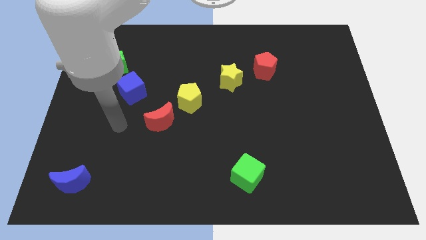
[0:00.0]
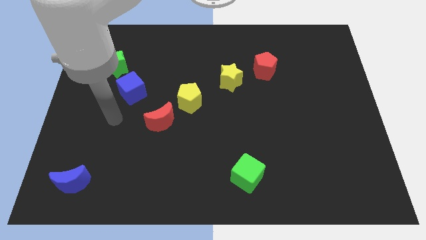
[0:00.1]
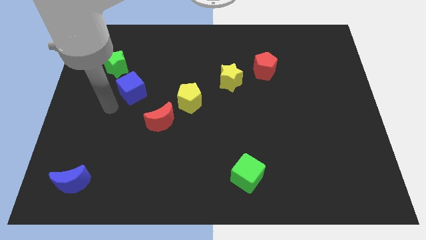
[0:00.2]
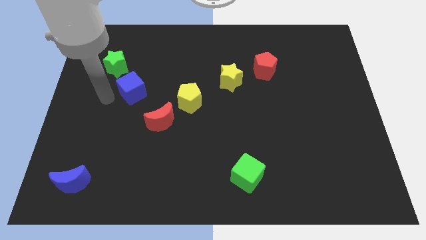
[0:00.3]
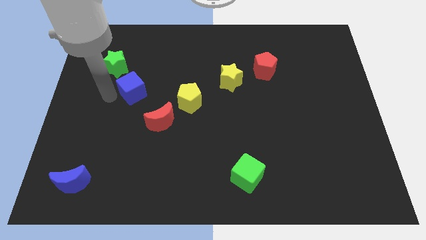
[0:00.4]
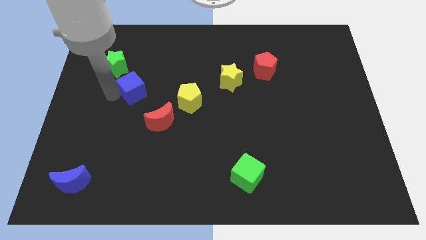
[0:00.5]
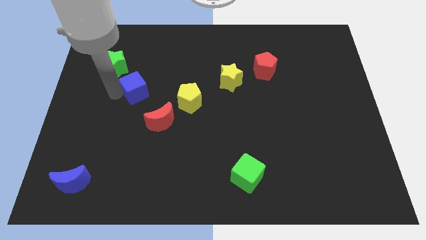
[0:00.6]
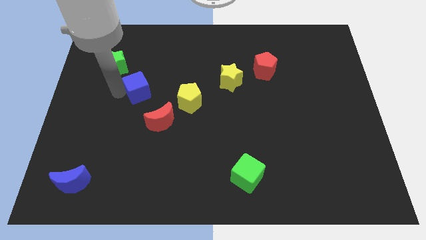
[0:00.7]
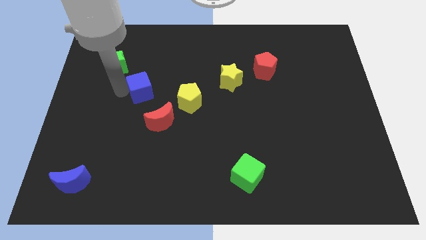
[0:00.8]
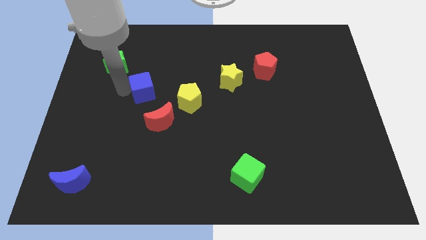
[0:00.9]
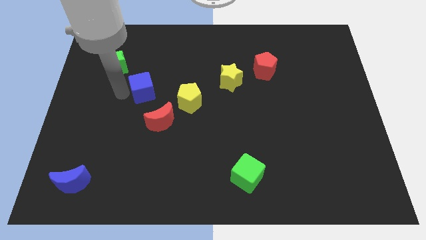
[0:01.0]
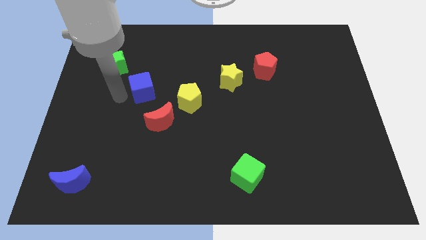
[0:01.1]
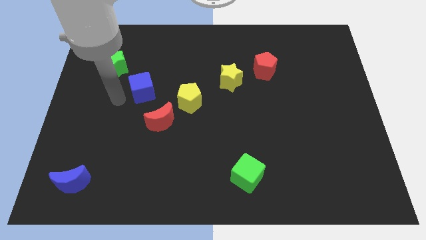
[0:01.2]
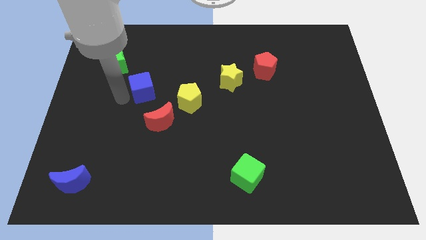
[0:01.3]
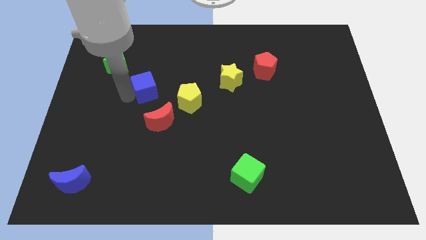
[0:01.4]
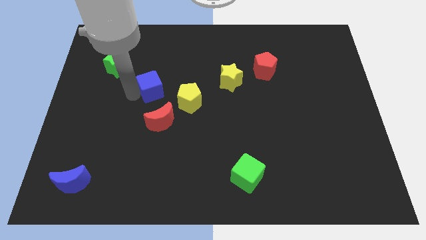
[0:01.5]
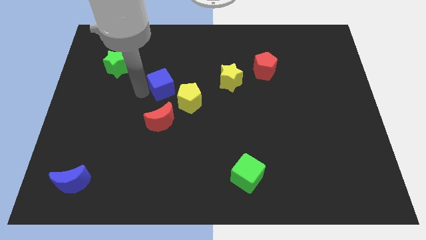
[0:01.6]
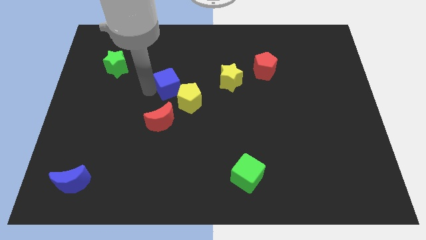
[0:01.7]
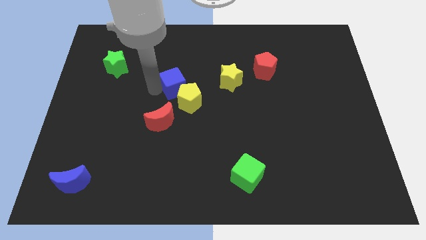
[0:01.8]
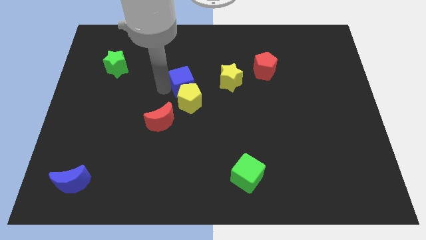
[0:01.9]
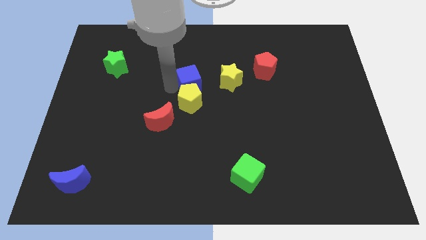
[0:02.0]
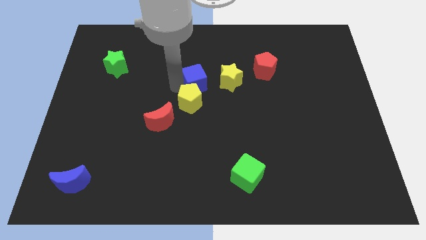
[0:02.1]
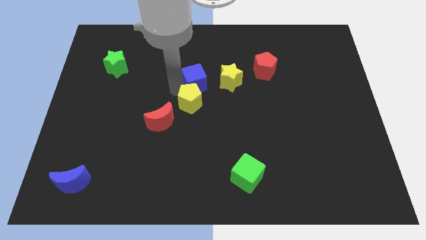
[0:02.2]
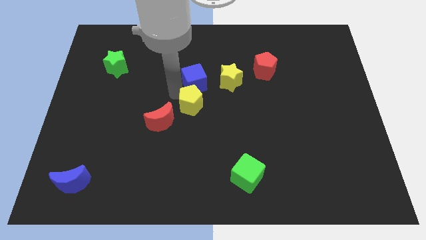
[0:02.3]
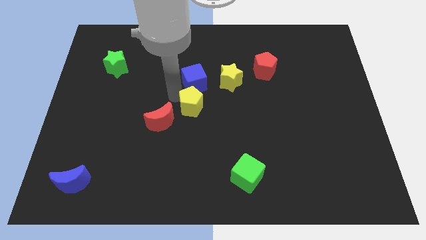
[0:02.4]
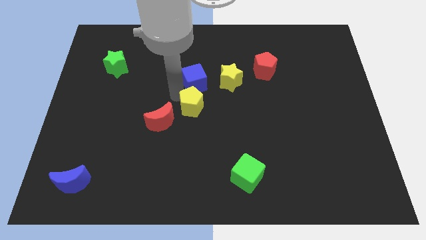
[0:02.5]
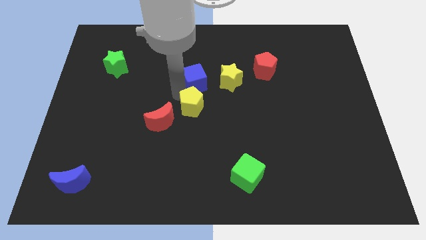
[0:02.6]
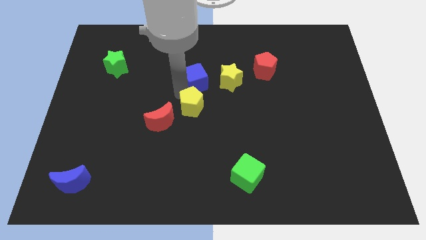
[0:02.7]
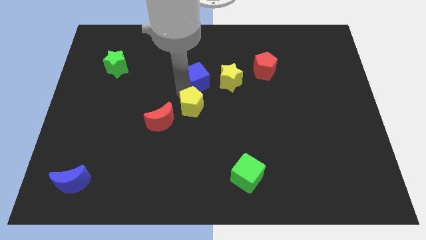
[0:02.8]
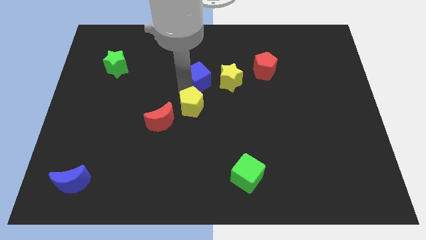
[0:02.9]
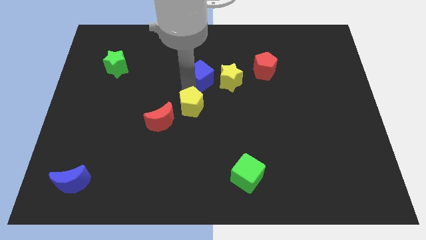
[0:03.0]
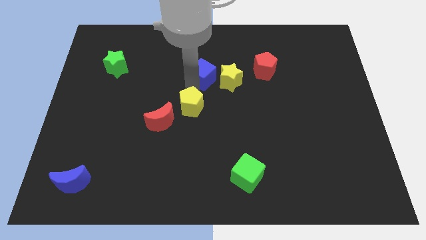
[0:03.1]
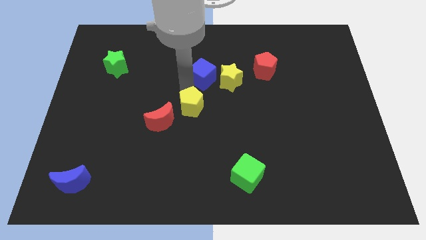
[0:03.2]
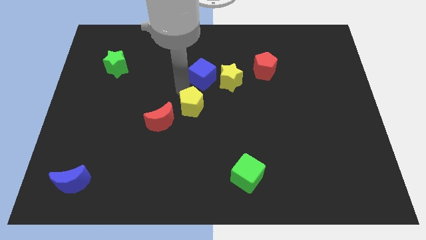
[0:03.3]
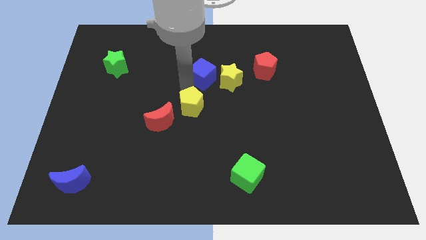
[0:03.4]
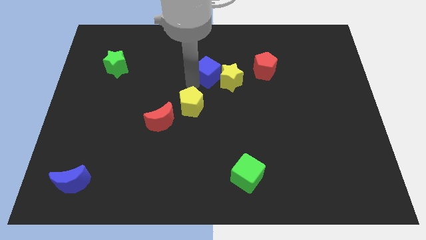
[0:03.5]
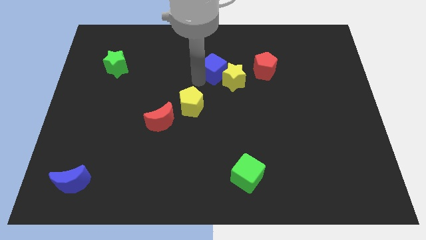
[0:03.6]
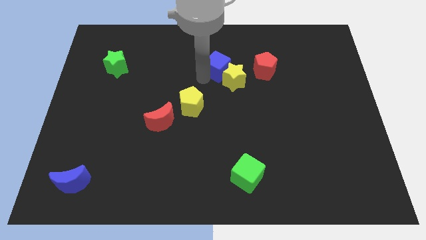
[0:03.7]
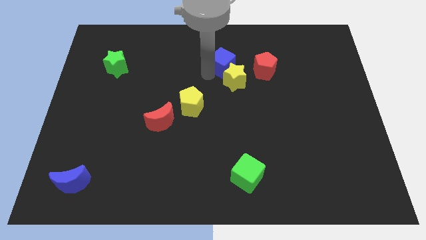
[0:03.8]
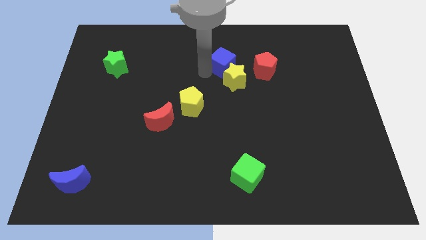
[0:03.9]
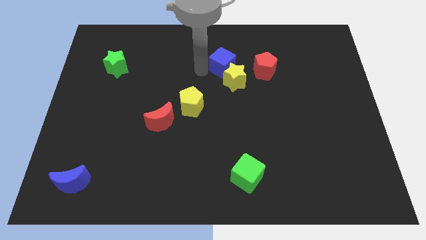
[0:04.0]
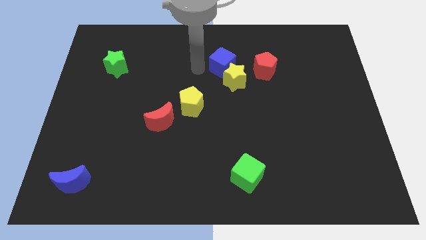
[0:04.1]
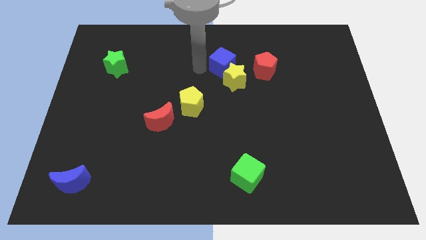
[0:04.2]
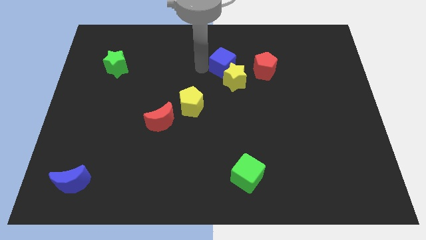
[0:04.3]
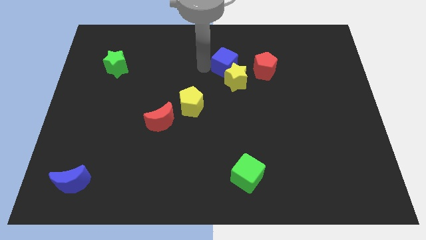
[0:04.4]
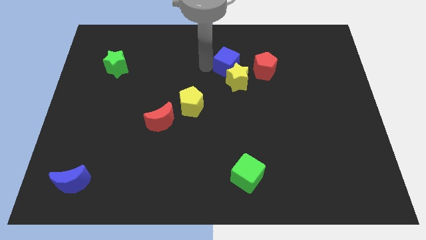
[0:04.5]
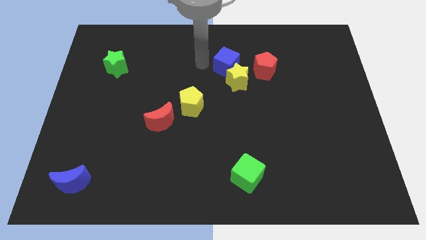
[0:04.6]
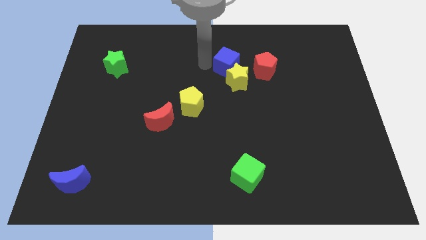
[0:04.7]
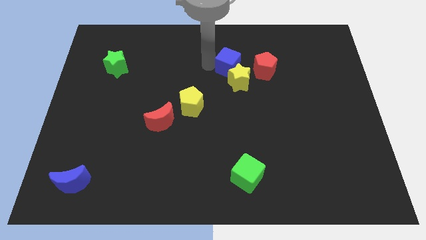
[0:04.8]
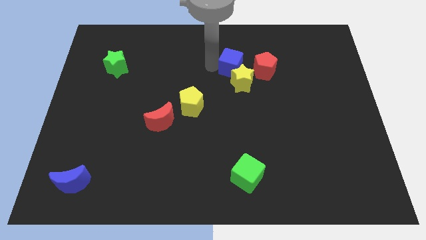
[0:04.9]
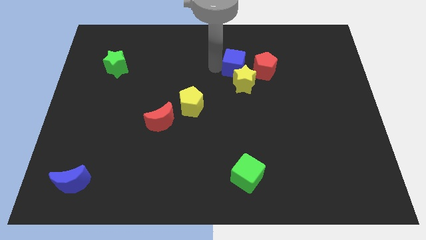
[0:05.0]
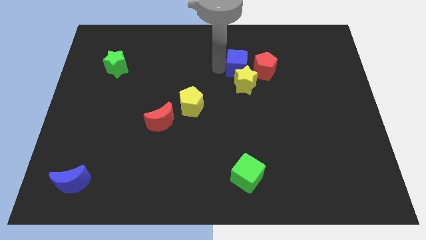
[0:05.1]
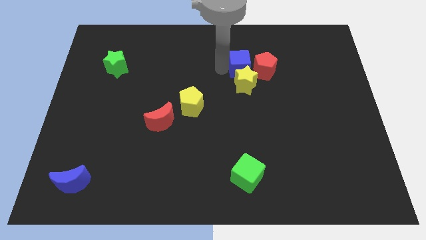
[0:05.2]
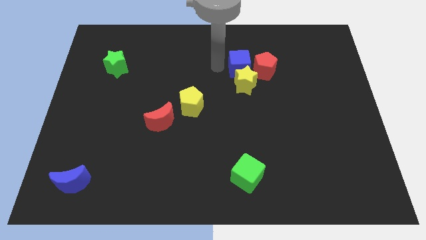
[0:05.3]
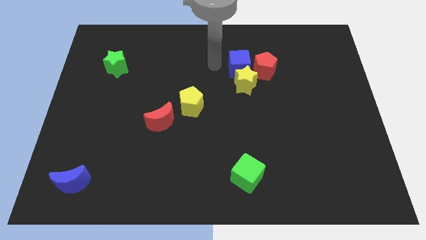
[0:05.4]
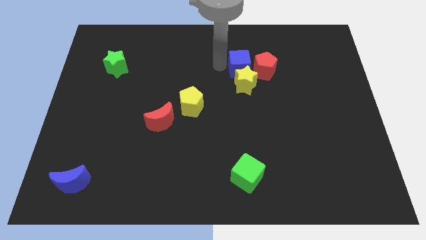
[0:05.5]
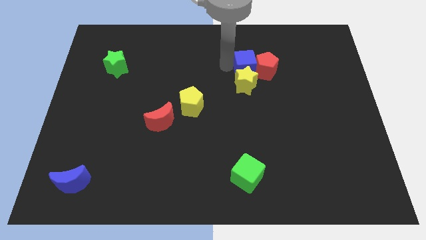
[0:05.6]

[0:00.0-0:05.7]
slide the blue cube next to the red pentagon

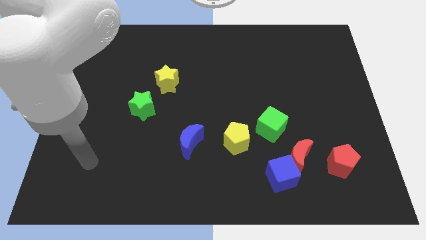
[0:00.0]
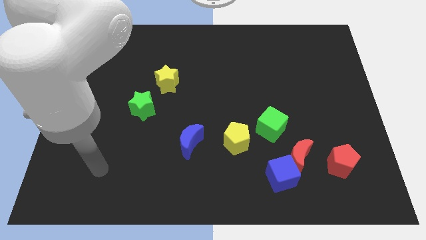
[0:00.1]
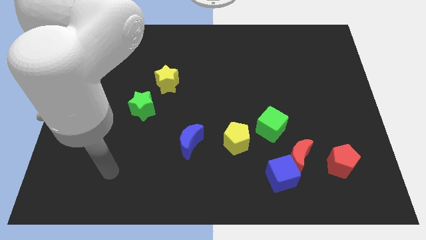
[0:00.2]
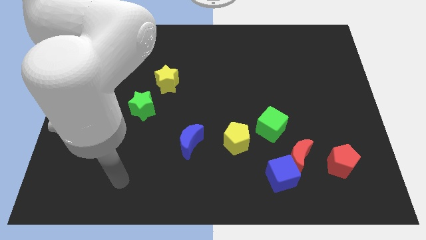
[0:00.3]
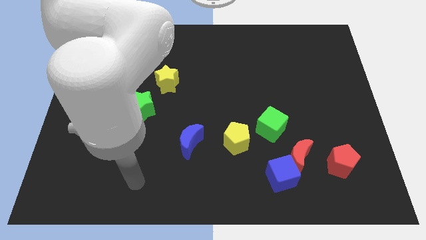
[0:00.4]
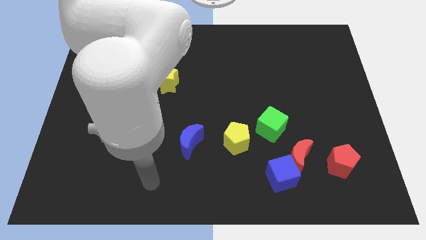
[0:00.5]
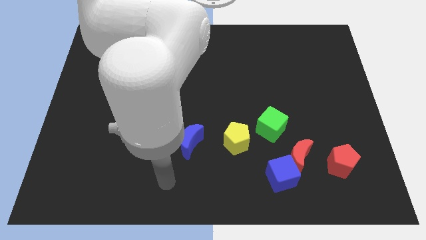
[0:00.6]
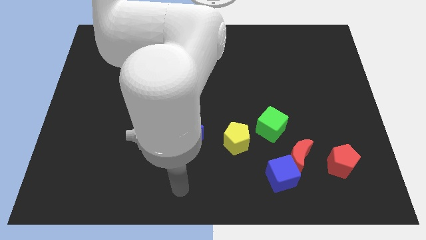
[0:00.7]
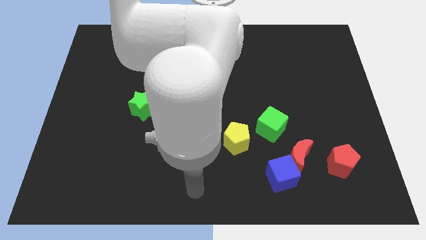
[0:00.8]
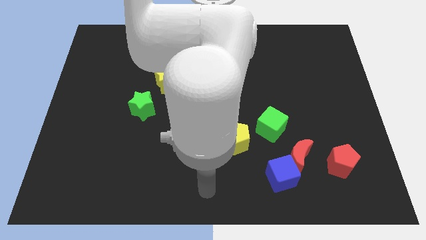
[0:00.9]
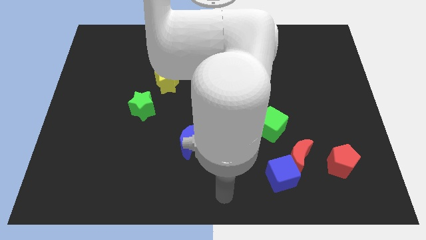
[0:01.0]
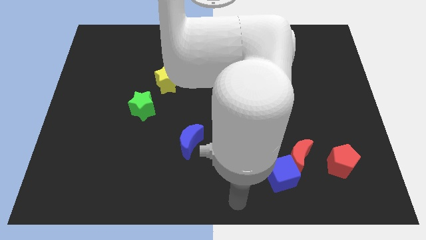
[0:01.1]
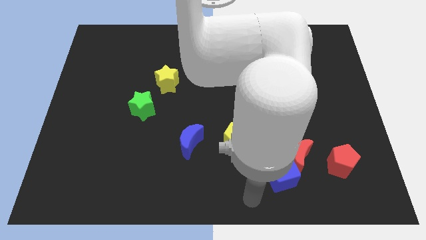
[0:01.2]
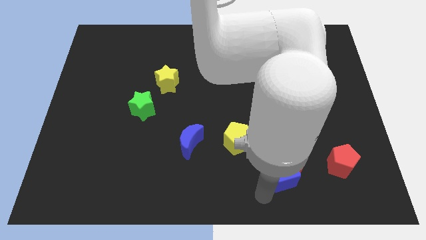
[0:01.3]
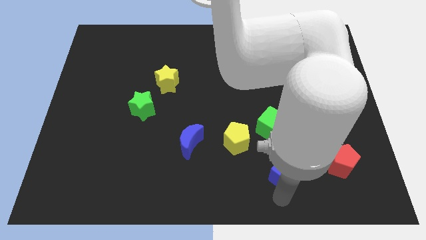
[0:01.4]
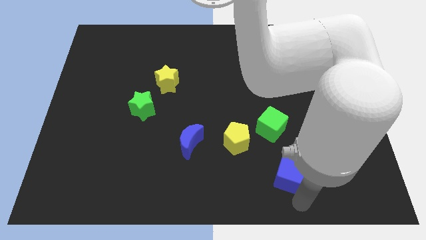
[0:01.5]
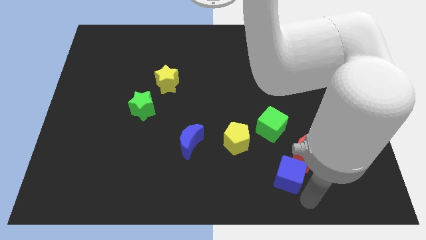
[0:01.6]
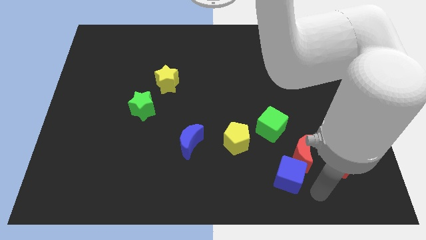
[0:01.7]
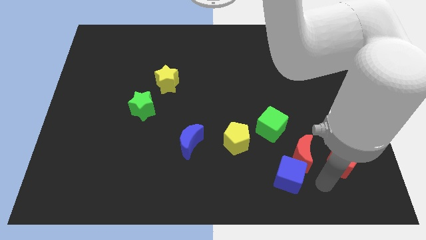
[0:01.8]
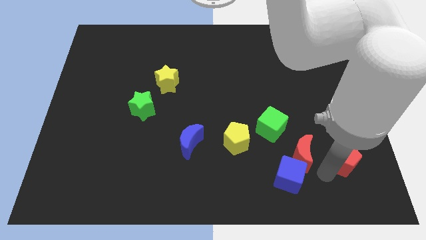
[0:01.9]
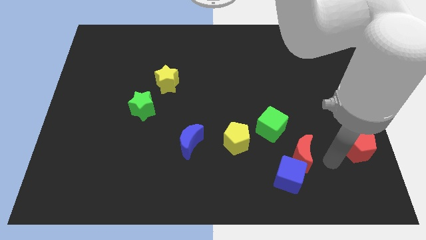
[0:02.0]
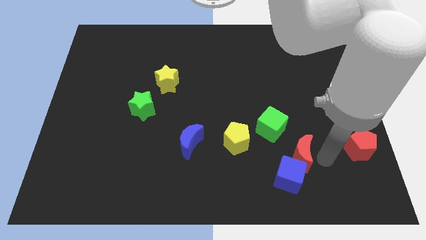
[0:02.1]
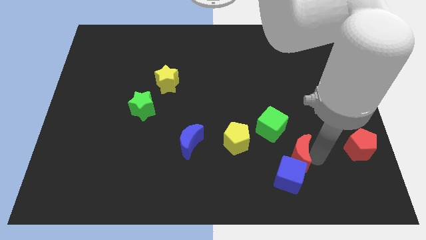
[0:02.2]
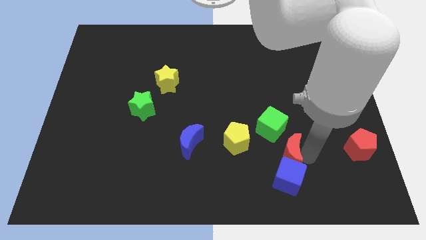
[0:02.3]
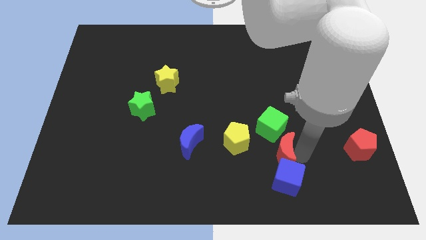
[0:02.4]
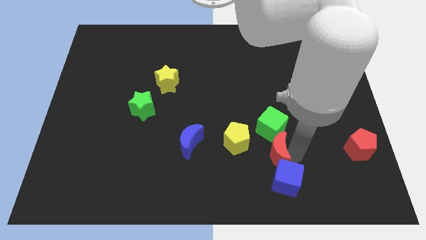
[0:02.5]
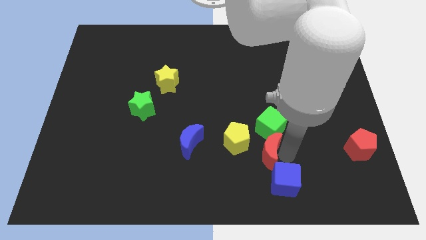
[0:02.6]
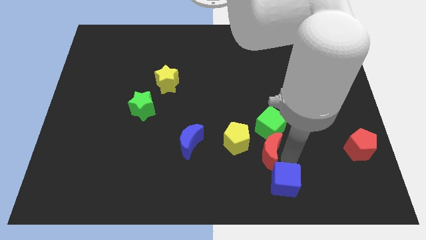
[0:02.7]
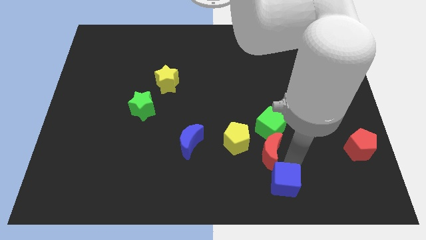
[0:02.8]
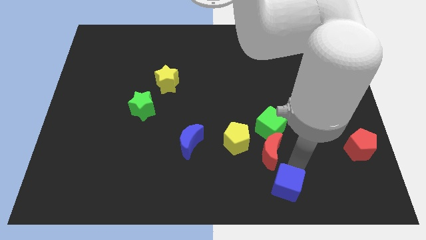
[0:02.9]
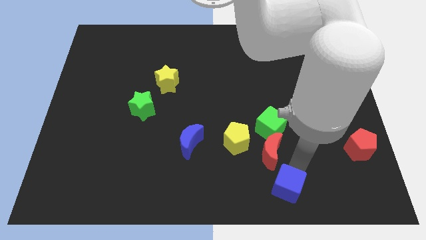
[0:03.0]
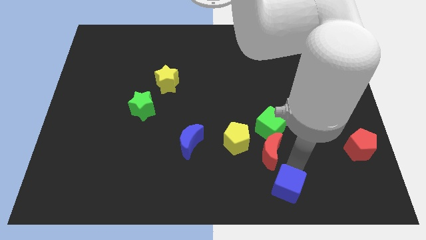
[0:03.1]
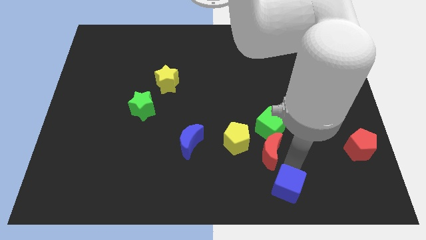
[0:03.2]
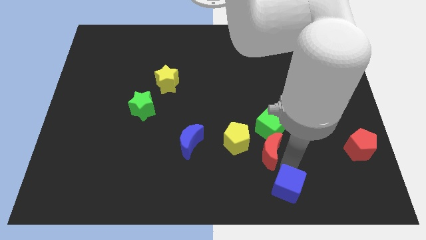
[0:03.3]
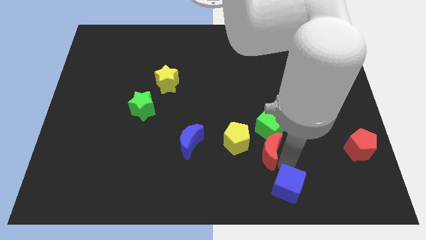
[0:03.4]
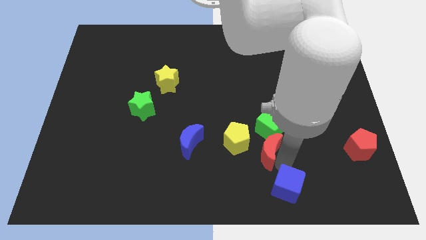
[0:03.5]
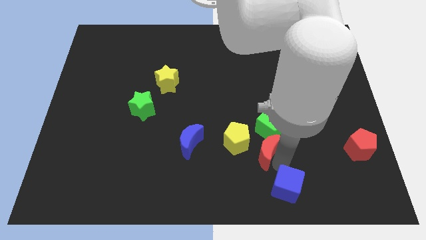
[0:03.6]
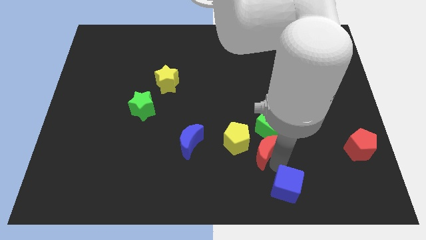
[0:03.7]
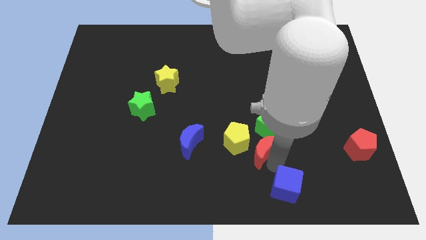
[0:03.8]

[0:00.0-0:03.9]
push the red moon towards the yellow pentagon
